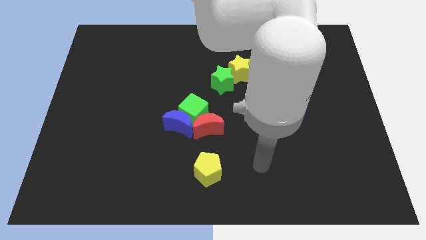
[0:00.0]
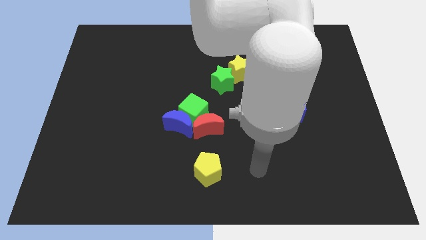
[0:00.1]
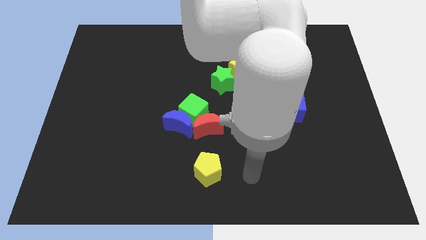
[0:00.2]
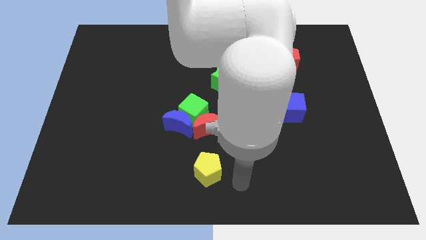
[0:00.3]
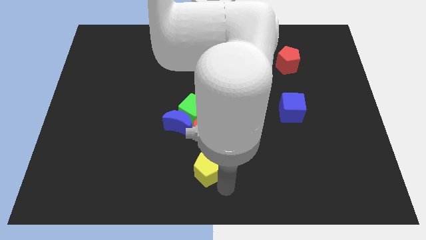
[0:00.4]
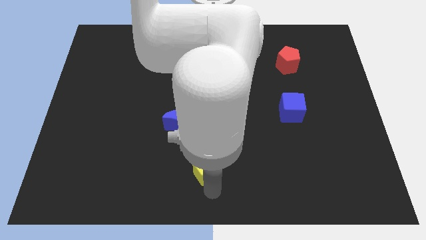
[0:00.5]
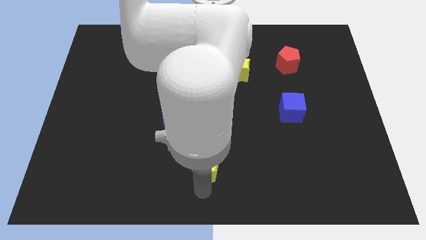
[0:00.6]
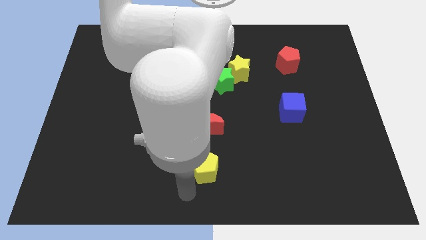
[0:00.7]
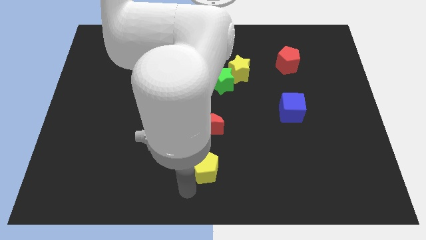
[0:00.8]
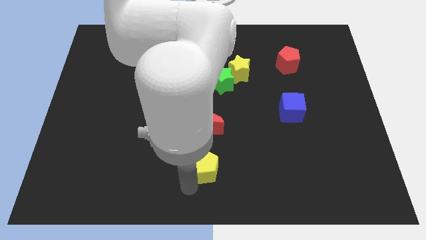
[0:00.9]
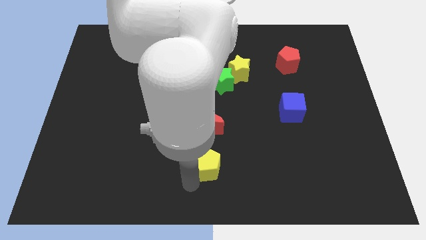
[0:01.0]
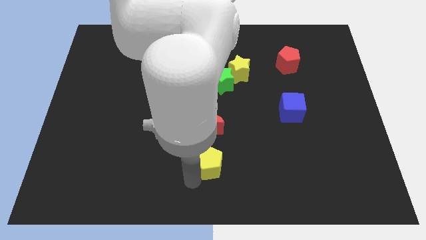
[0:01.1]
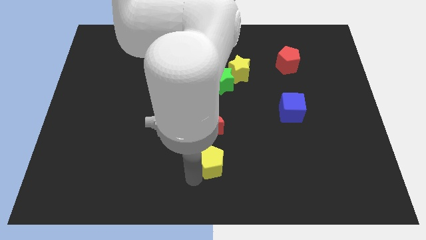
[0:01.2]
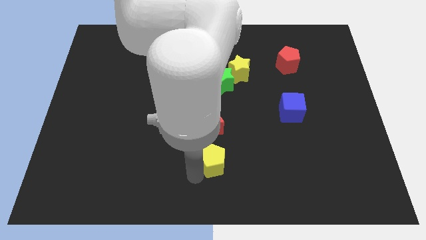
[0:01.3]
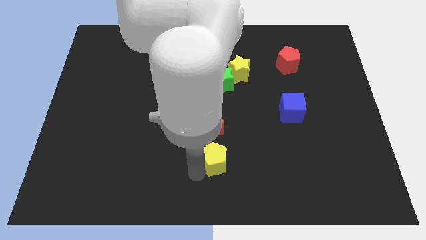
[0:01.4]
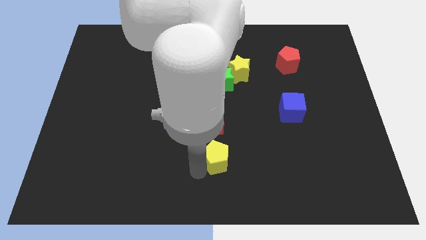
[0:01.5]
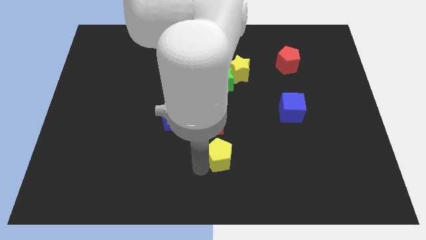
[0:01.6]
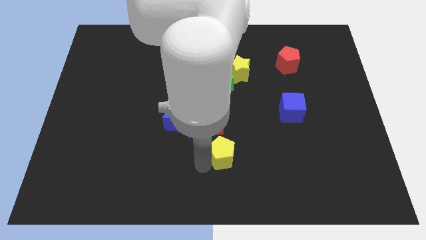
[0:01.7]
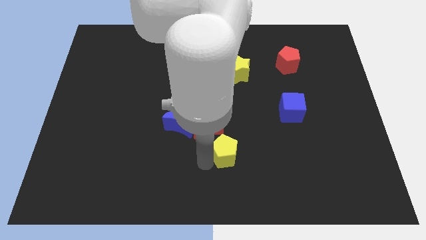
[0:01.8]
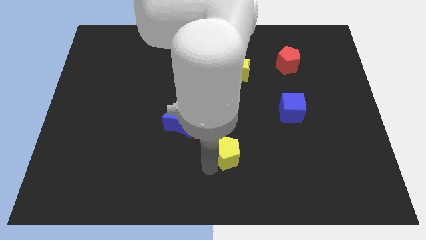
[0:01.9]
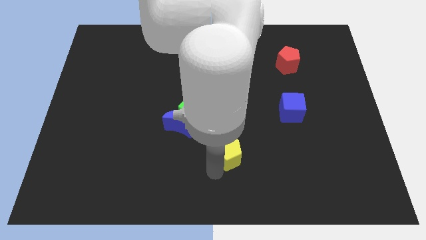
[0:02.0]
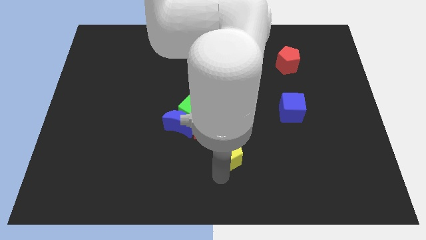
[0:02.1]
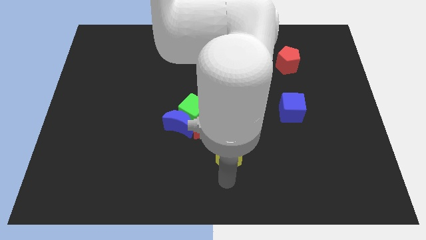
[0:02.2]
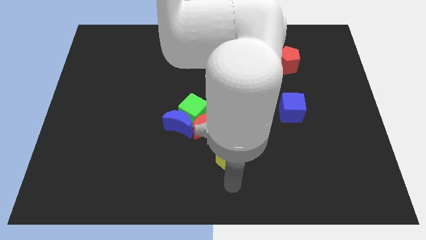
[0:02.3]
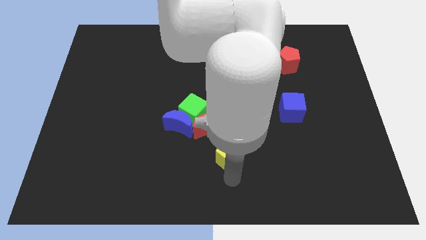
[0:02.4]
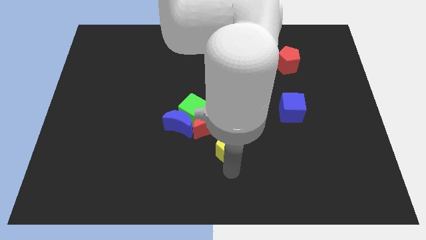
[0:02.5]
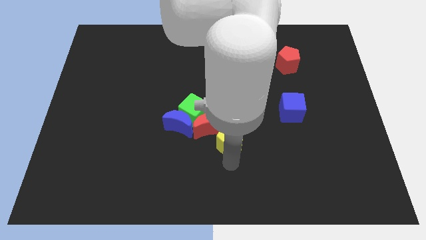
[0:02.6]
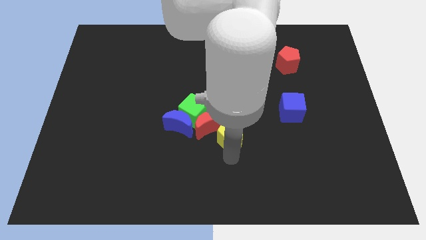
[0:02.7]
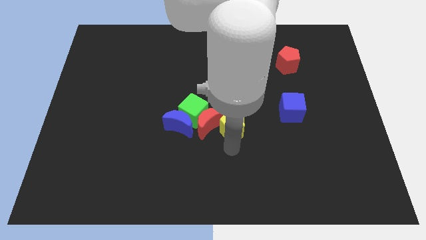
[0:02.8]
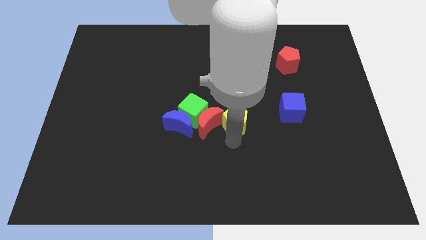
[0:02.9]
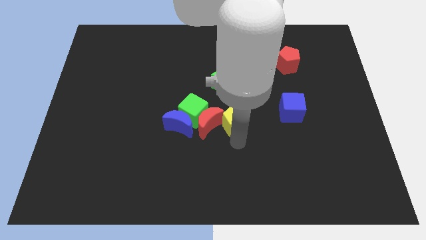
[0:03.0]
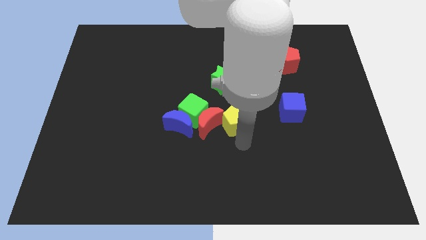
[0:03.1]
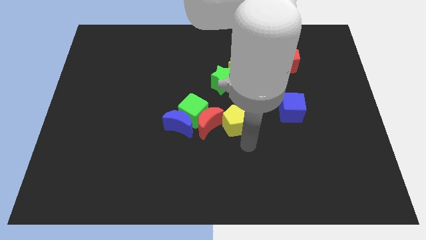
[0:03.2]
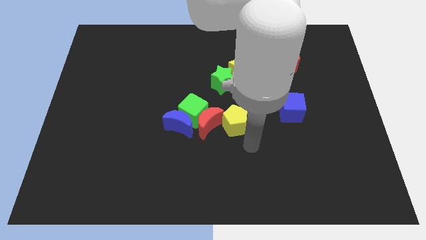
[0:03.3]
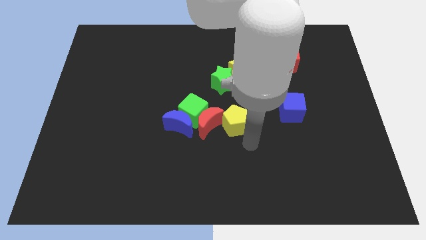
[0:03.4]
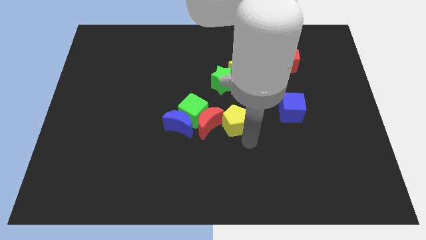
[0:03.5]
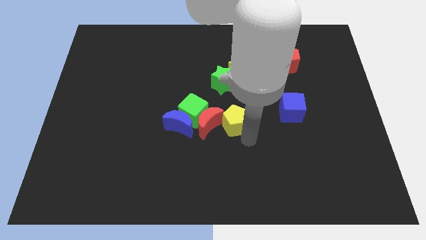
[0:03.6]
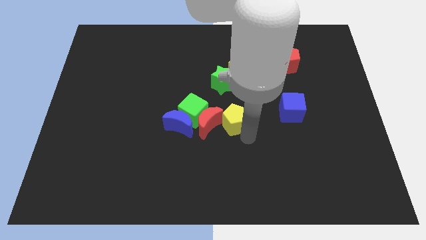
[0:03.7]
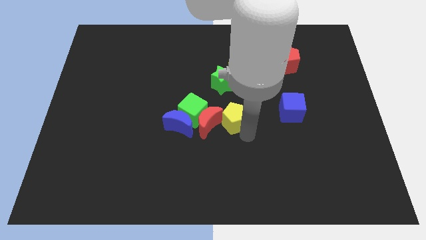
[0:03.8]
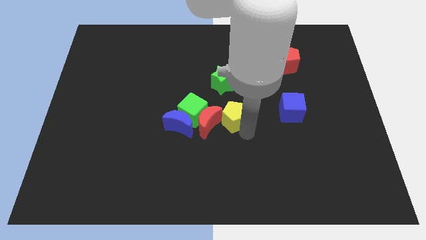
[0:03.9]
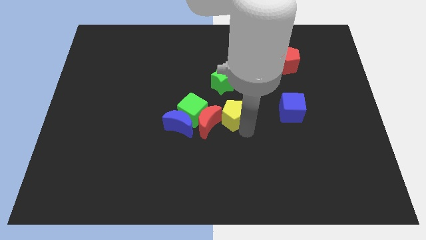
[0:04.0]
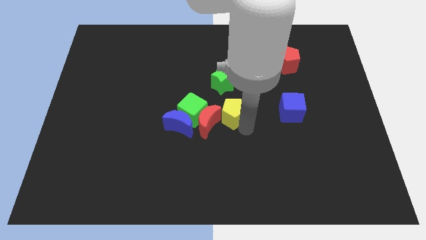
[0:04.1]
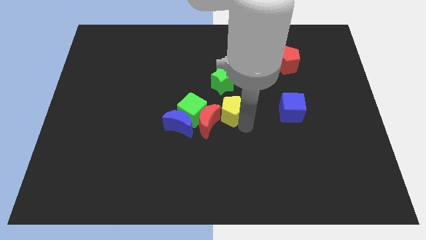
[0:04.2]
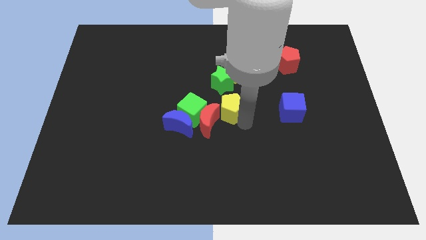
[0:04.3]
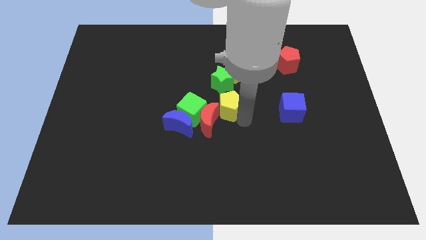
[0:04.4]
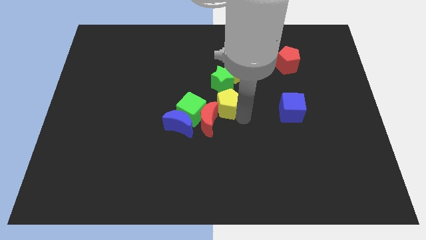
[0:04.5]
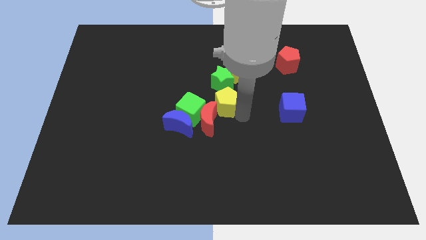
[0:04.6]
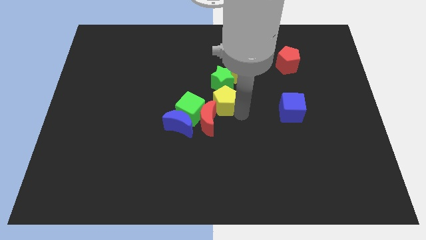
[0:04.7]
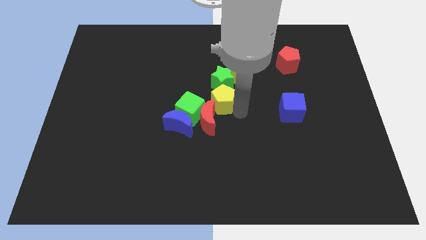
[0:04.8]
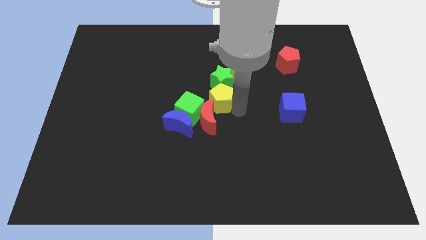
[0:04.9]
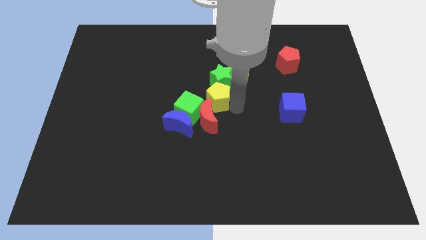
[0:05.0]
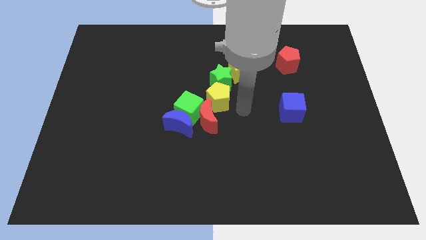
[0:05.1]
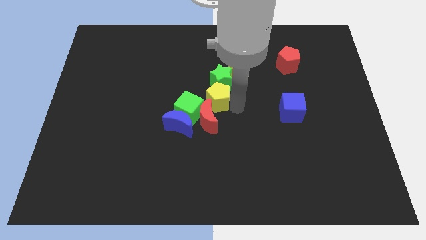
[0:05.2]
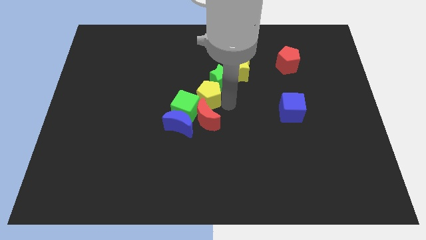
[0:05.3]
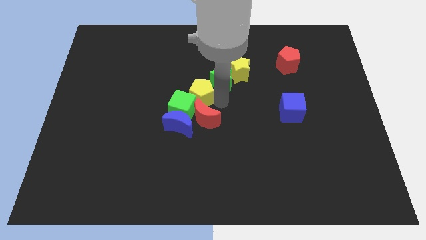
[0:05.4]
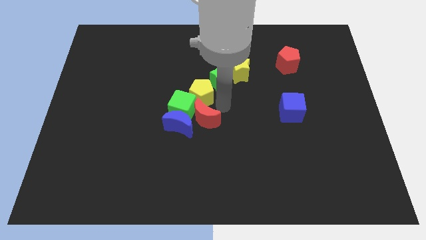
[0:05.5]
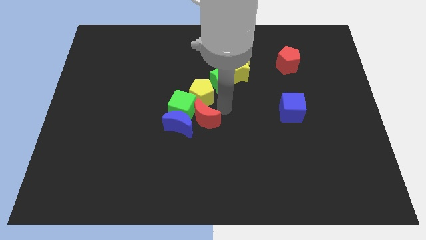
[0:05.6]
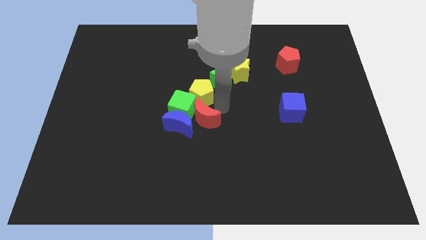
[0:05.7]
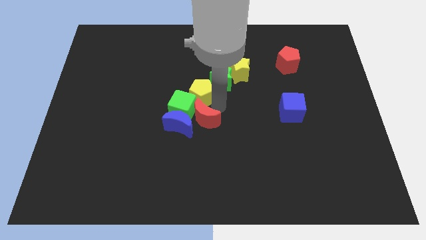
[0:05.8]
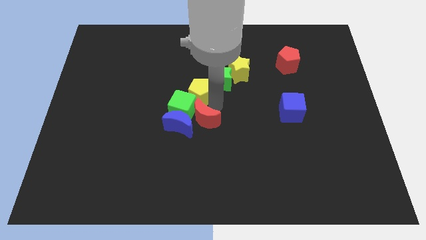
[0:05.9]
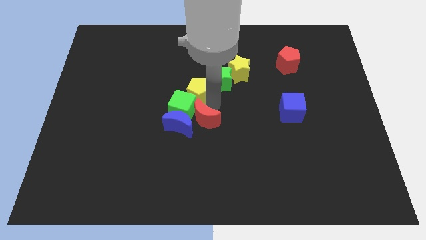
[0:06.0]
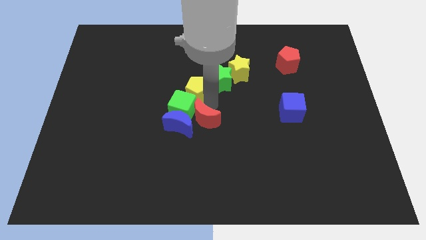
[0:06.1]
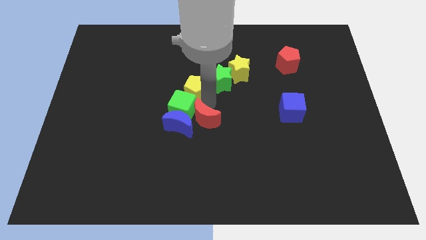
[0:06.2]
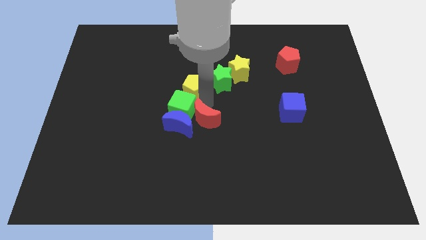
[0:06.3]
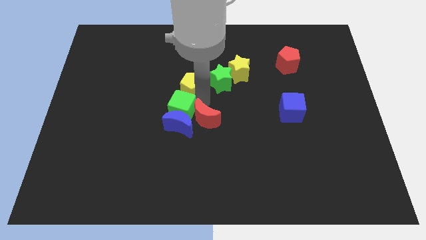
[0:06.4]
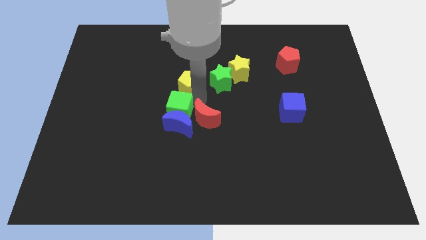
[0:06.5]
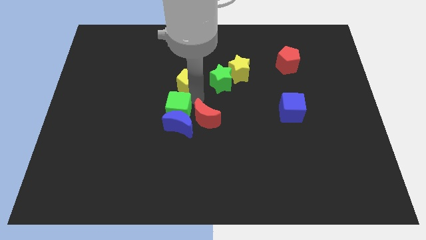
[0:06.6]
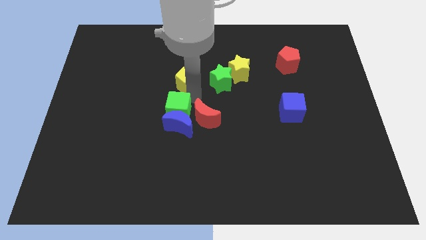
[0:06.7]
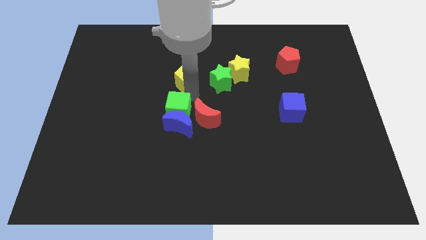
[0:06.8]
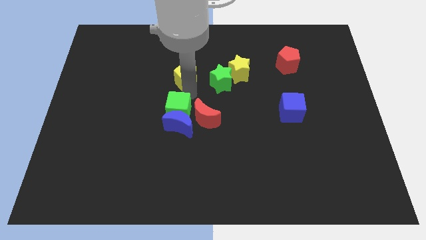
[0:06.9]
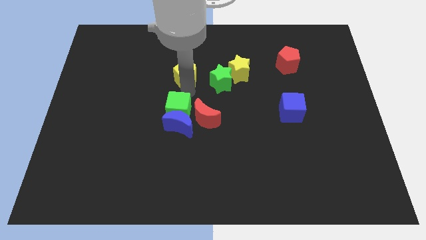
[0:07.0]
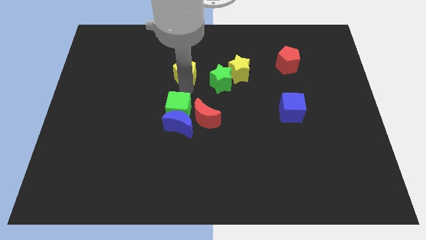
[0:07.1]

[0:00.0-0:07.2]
slide the yellow pentagon to the top left side of the green star
